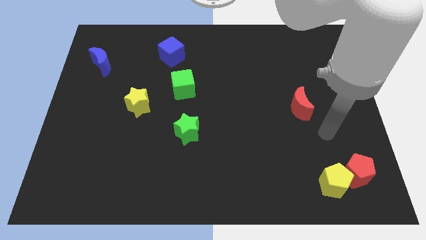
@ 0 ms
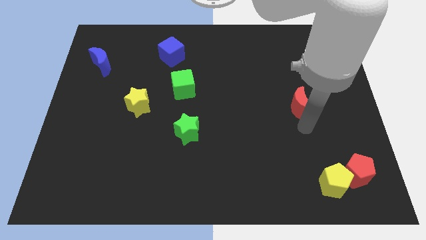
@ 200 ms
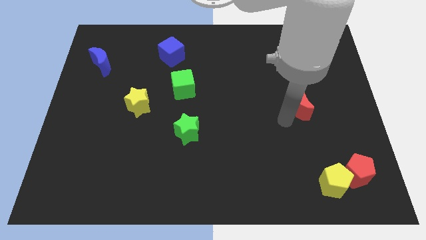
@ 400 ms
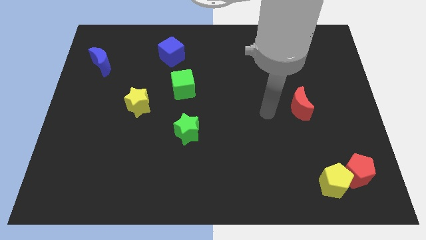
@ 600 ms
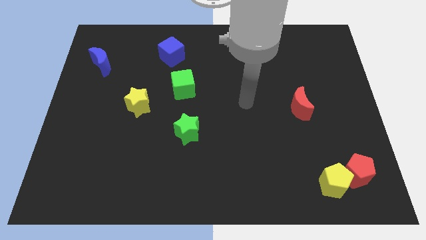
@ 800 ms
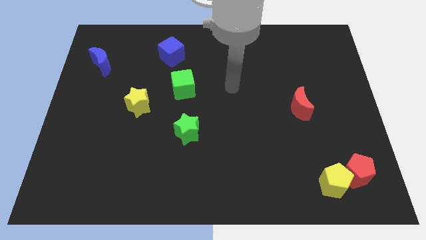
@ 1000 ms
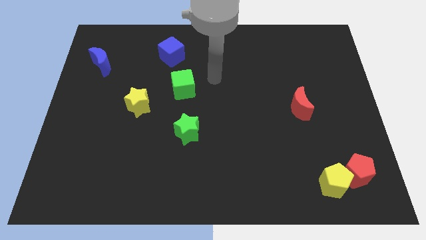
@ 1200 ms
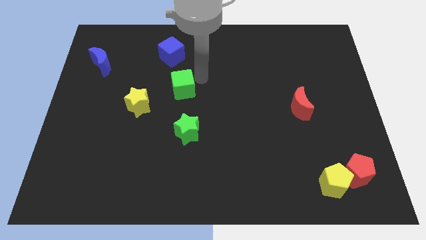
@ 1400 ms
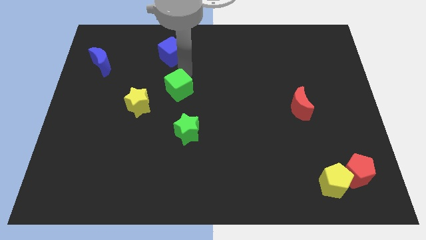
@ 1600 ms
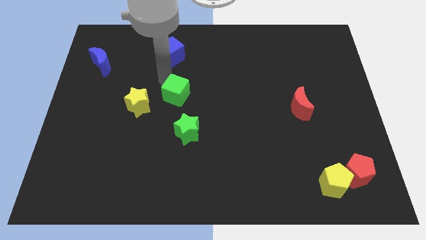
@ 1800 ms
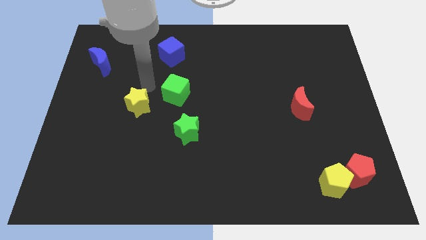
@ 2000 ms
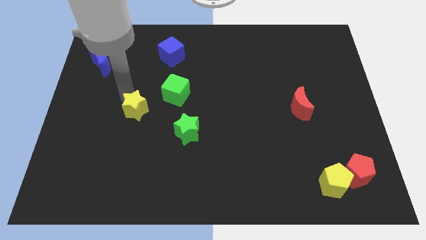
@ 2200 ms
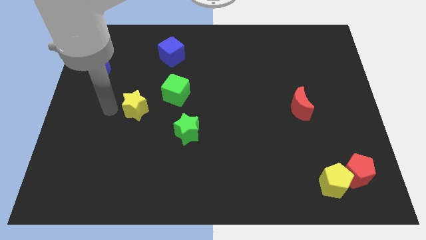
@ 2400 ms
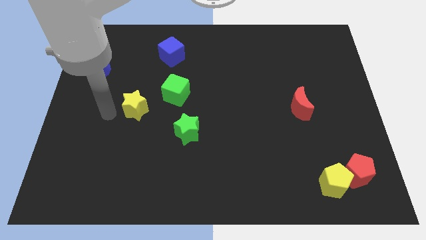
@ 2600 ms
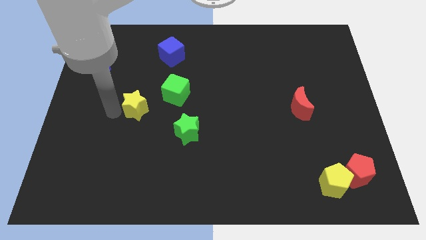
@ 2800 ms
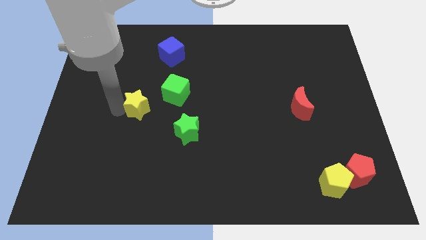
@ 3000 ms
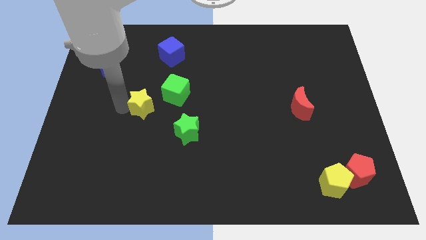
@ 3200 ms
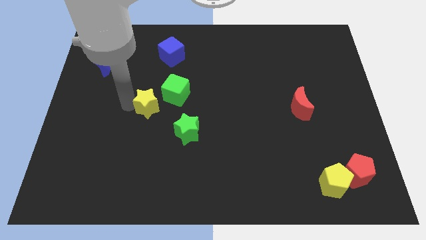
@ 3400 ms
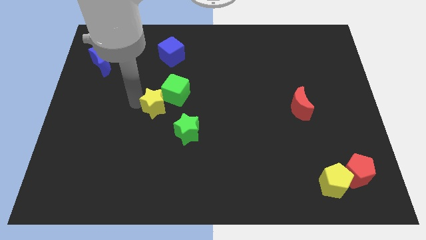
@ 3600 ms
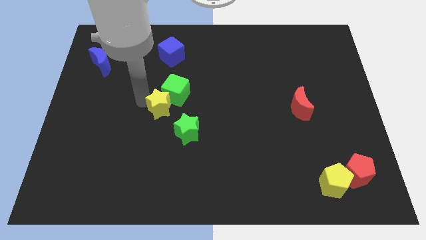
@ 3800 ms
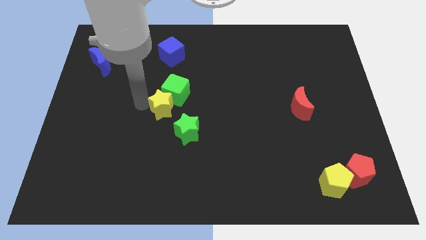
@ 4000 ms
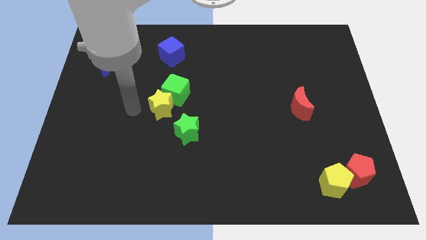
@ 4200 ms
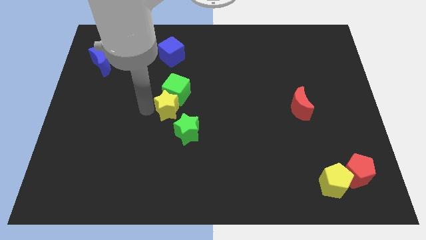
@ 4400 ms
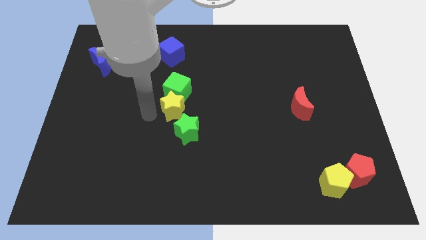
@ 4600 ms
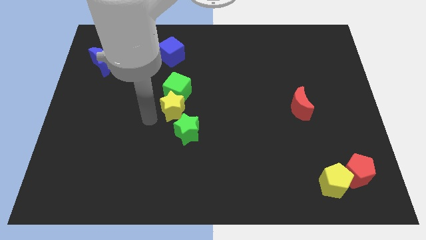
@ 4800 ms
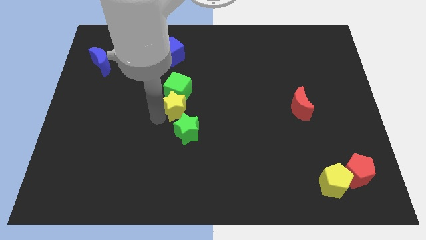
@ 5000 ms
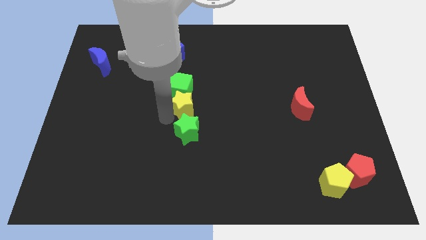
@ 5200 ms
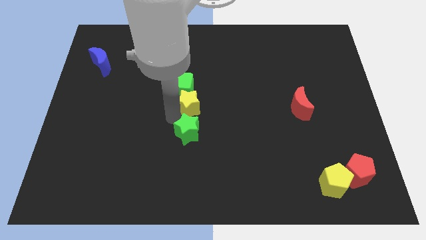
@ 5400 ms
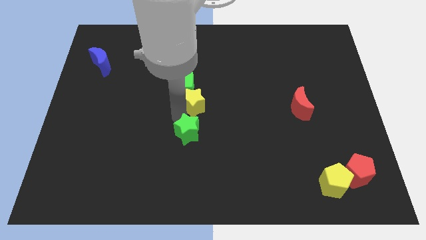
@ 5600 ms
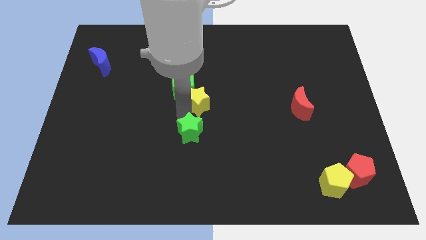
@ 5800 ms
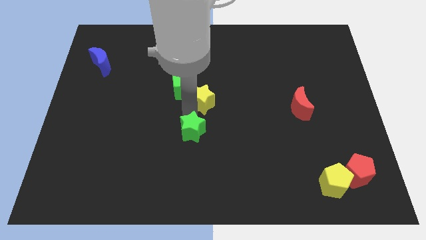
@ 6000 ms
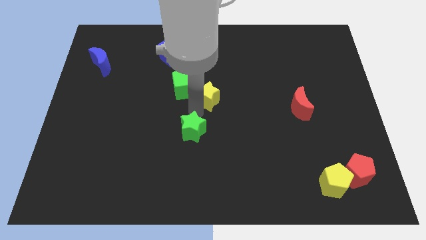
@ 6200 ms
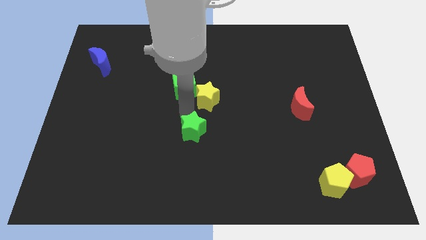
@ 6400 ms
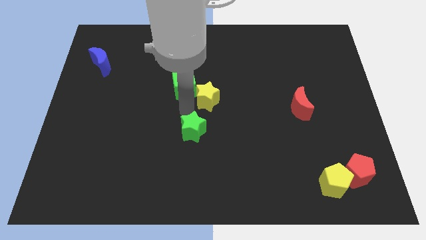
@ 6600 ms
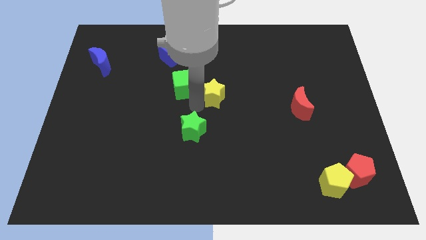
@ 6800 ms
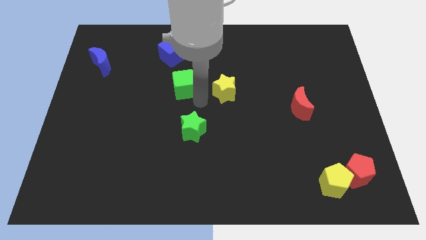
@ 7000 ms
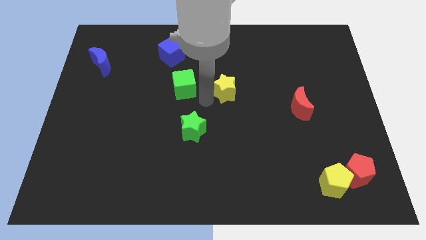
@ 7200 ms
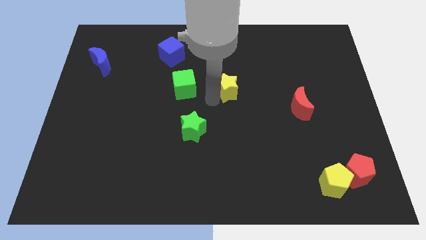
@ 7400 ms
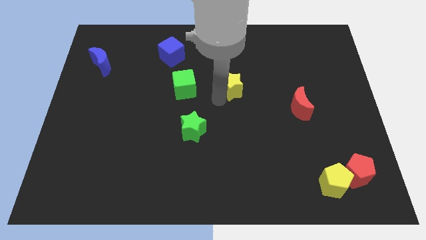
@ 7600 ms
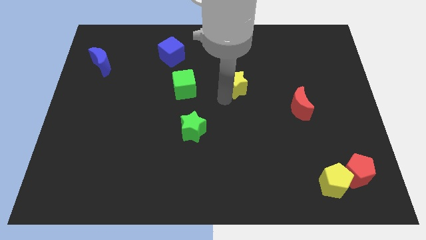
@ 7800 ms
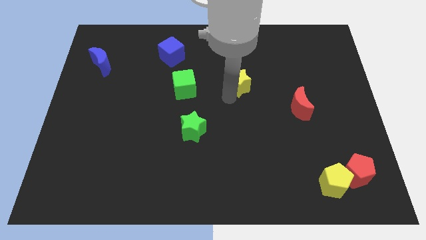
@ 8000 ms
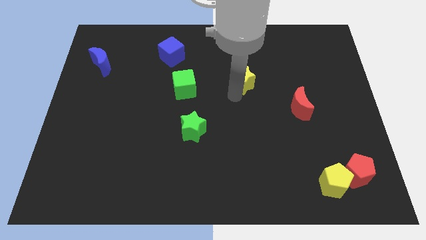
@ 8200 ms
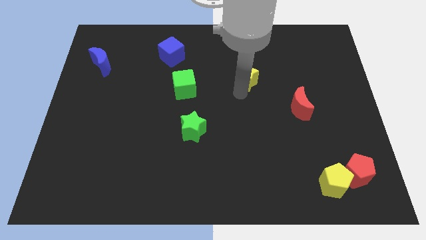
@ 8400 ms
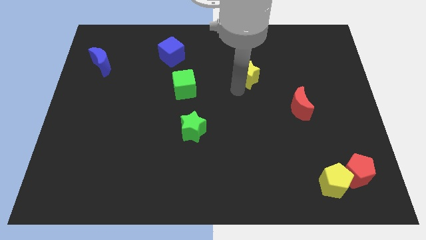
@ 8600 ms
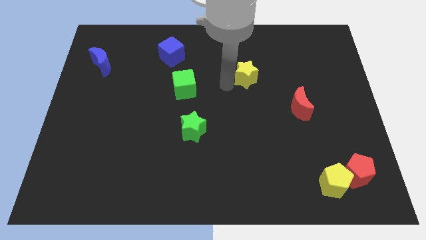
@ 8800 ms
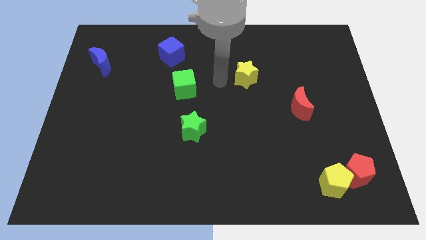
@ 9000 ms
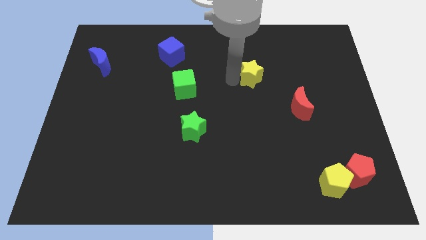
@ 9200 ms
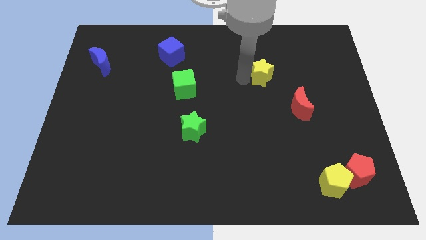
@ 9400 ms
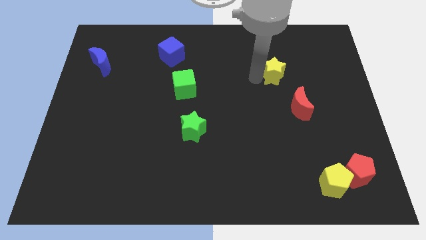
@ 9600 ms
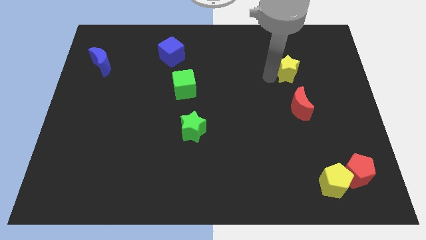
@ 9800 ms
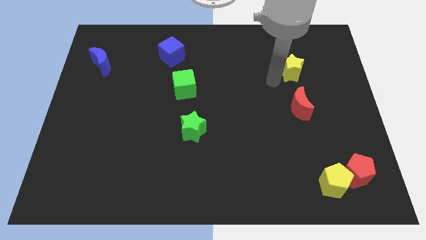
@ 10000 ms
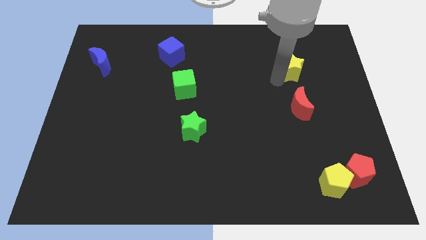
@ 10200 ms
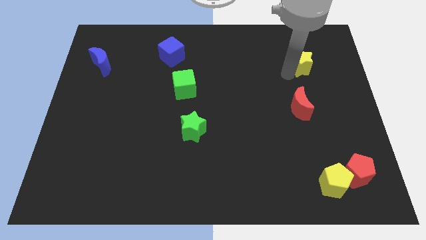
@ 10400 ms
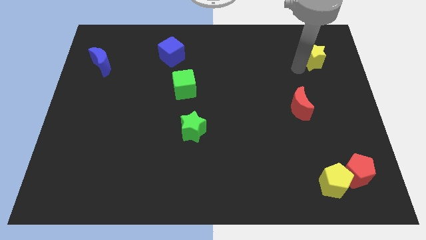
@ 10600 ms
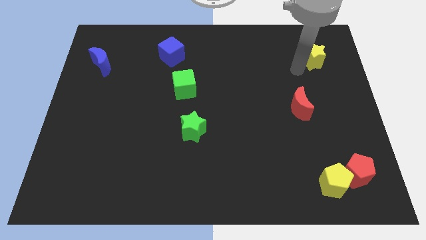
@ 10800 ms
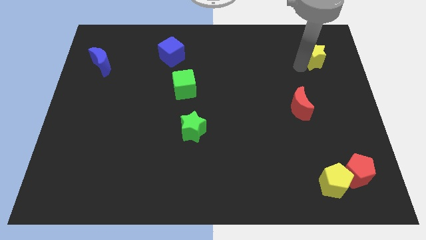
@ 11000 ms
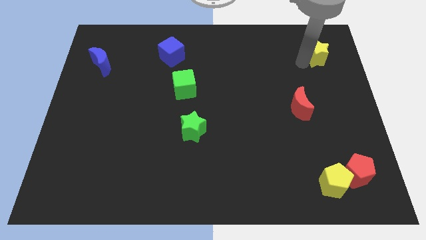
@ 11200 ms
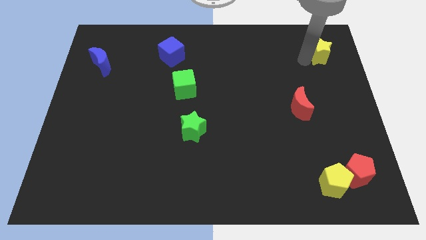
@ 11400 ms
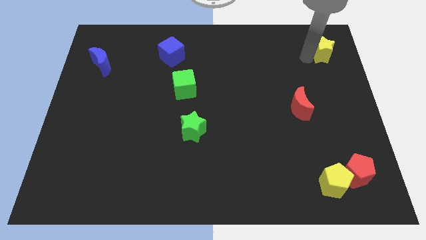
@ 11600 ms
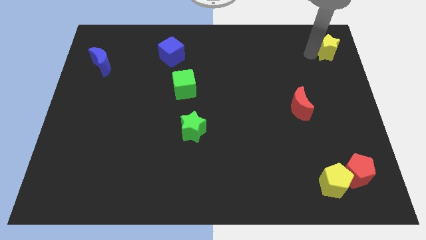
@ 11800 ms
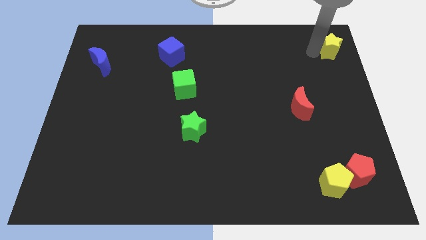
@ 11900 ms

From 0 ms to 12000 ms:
push the yellow star to the upper right corner
